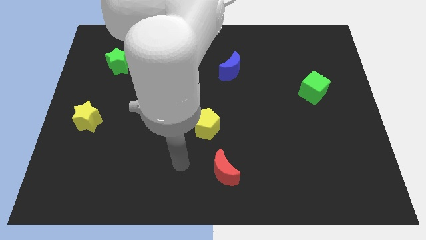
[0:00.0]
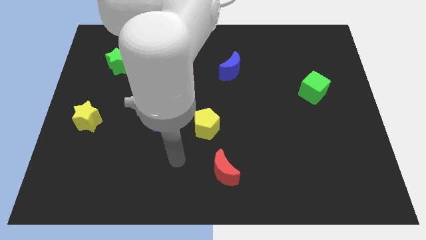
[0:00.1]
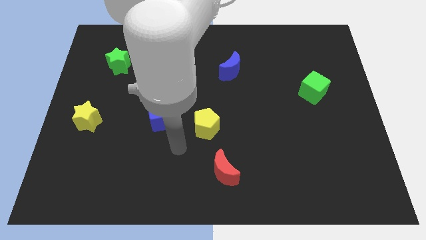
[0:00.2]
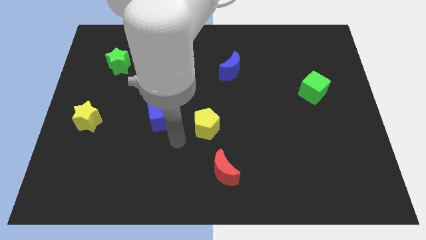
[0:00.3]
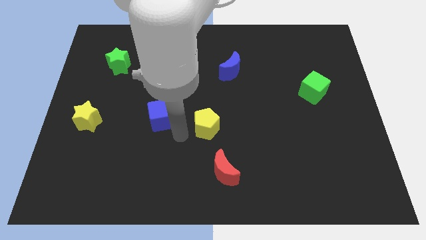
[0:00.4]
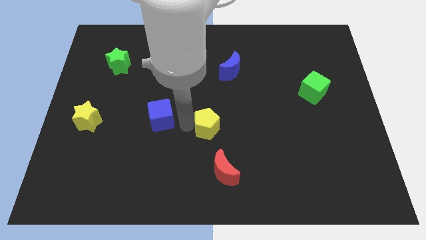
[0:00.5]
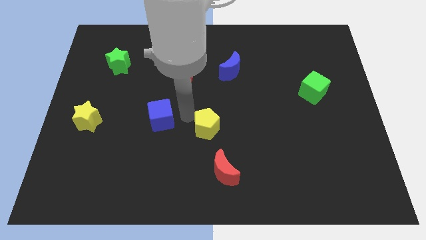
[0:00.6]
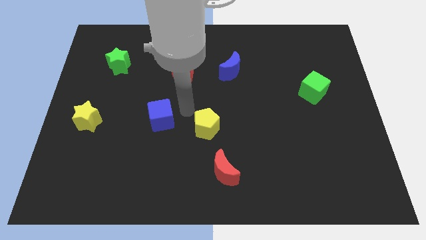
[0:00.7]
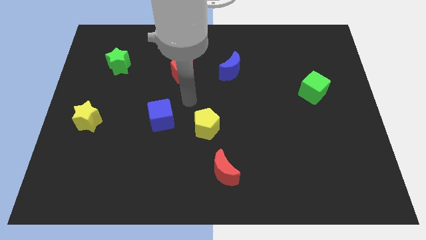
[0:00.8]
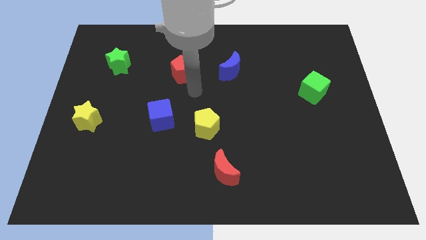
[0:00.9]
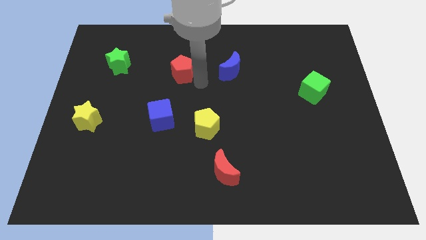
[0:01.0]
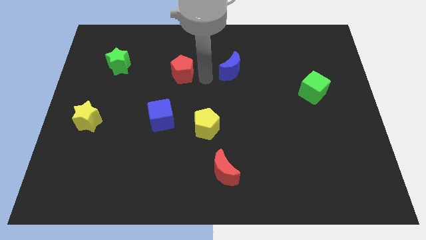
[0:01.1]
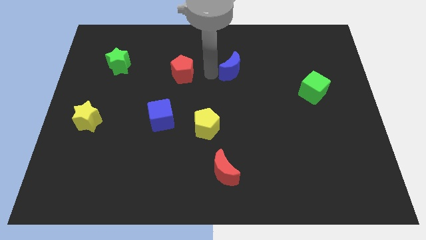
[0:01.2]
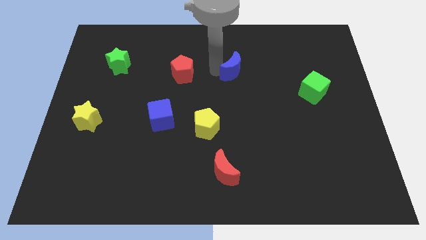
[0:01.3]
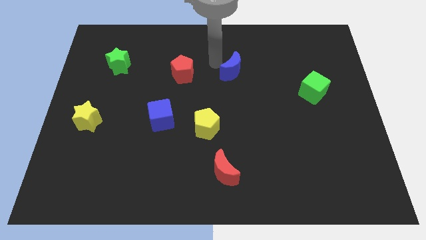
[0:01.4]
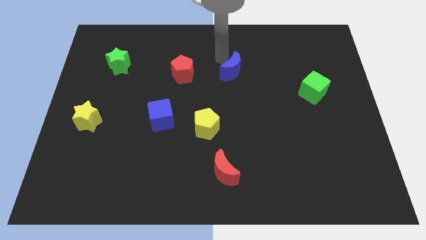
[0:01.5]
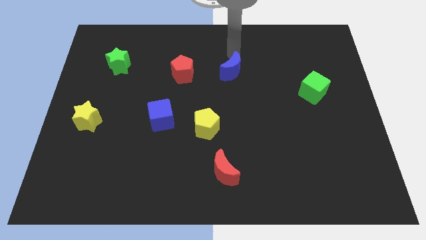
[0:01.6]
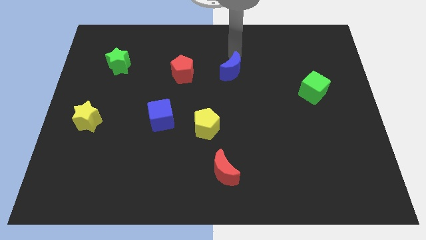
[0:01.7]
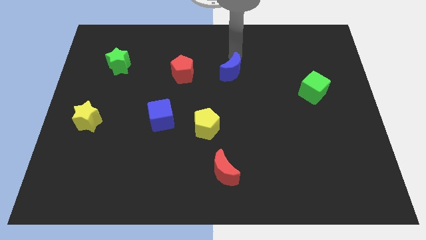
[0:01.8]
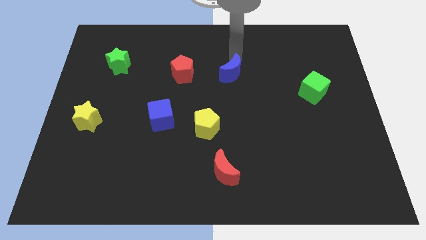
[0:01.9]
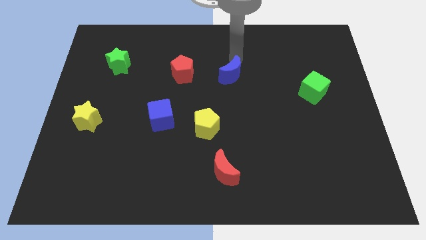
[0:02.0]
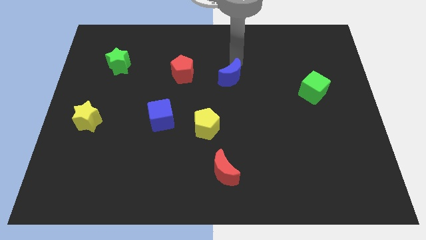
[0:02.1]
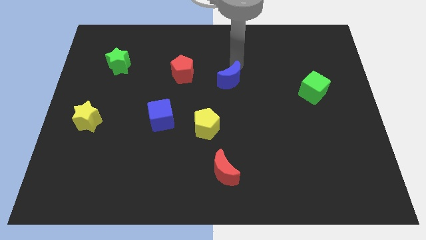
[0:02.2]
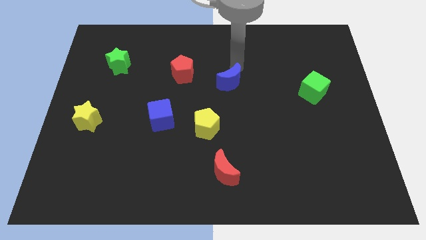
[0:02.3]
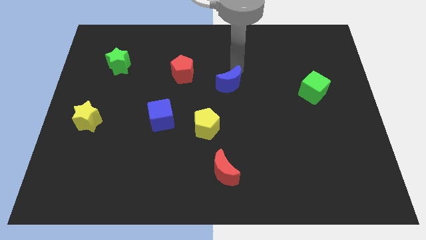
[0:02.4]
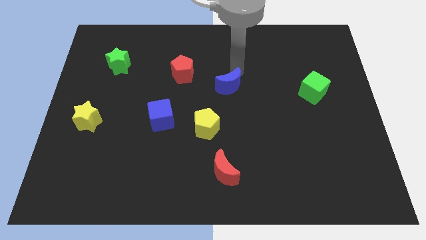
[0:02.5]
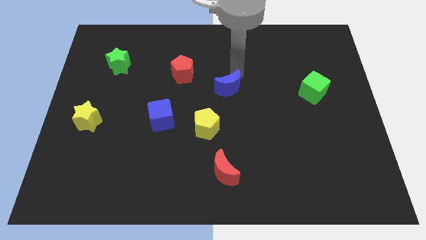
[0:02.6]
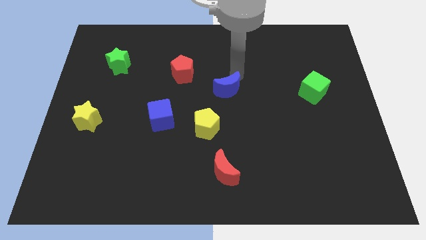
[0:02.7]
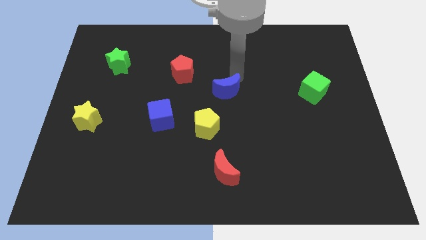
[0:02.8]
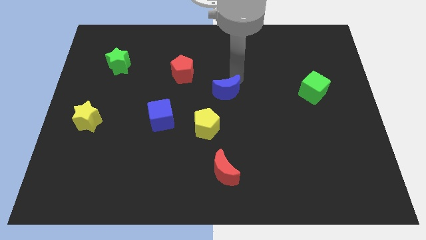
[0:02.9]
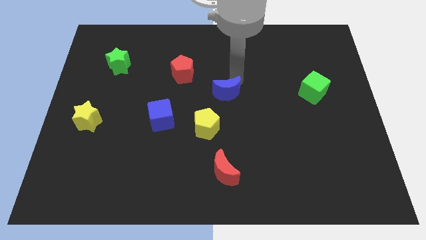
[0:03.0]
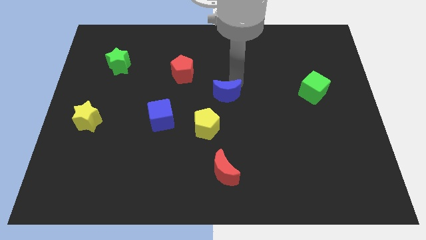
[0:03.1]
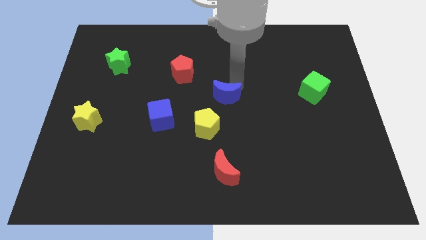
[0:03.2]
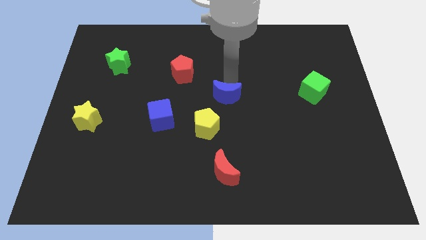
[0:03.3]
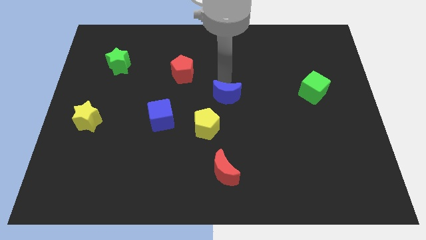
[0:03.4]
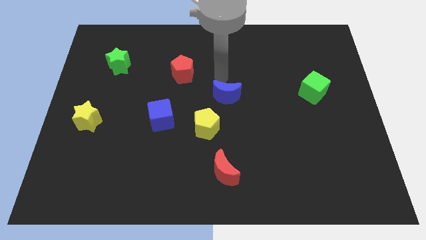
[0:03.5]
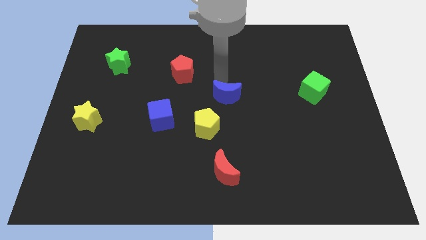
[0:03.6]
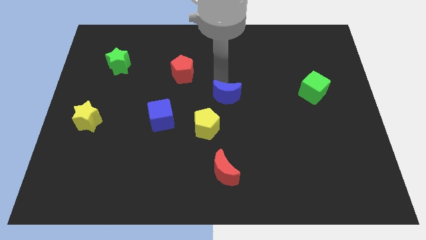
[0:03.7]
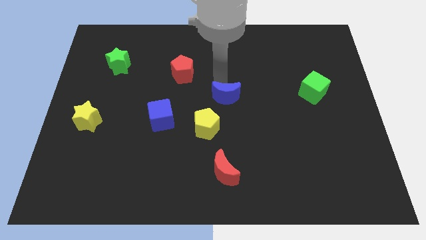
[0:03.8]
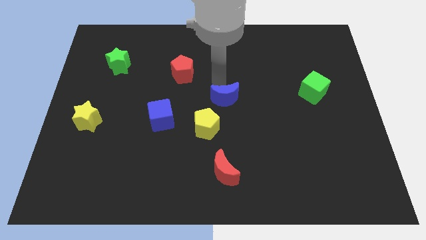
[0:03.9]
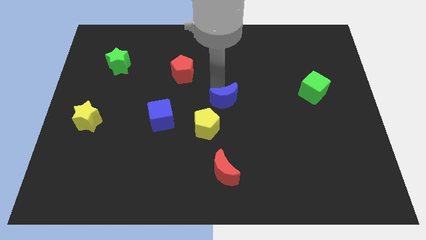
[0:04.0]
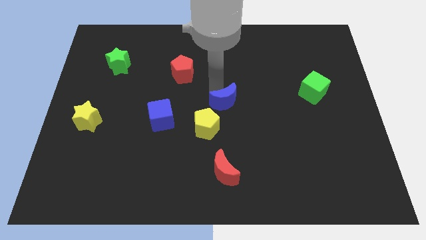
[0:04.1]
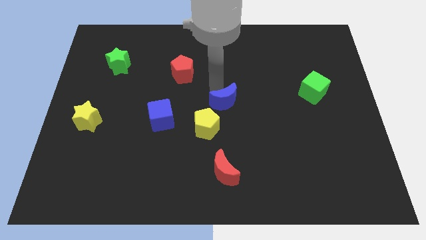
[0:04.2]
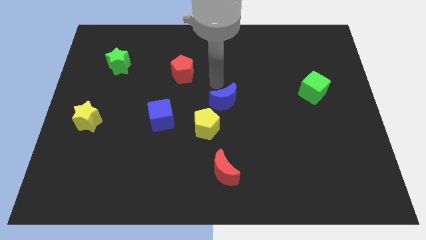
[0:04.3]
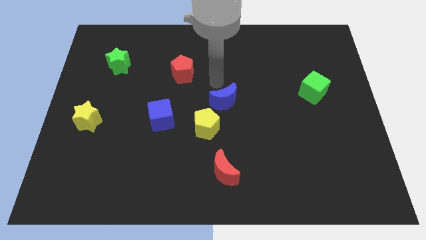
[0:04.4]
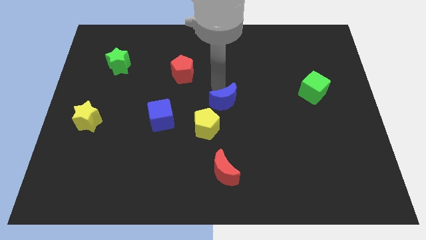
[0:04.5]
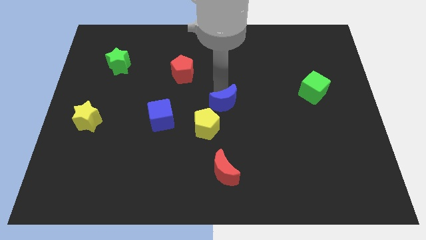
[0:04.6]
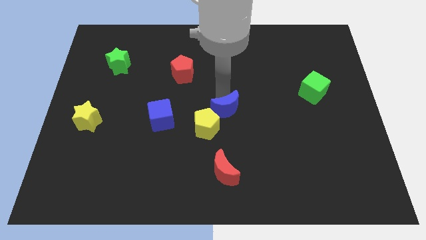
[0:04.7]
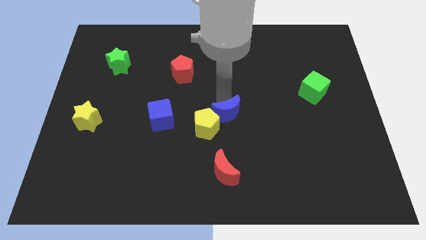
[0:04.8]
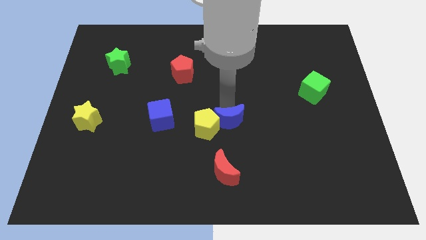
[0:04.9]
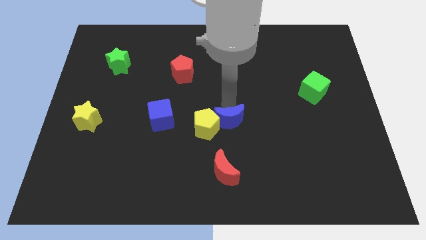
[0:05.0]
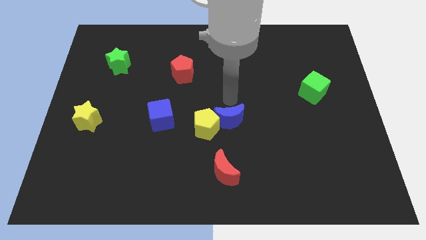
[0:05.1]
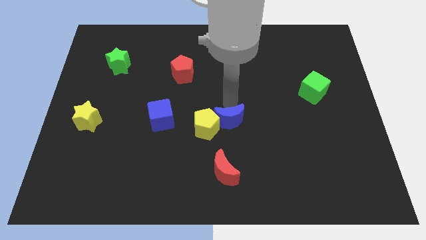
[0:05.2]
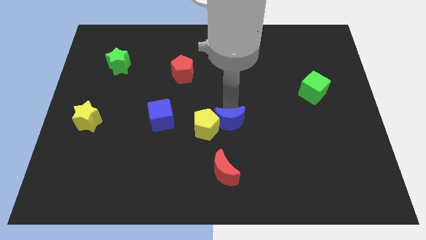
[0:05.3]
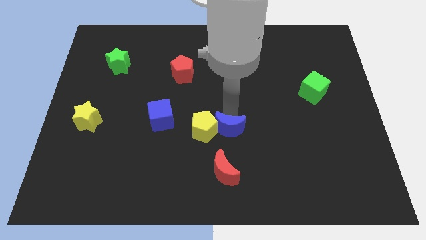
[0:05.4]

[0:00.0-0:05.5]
slide the blue moon to the bottom right side of the yellow pentagon
